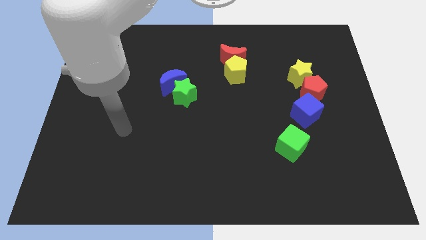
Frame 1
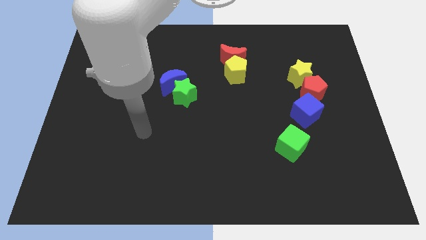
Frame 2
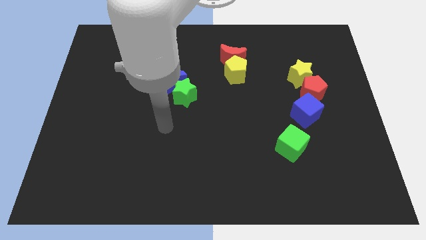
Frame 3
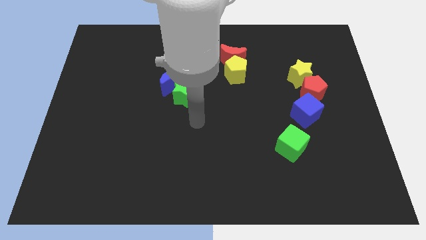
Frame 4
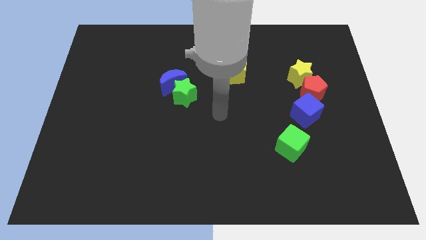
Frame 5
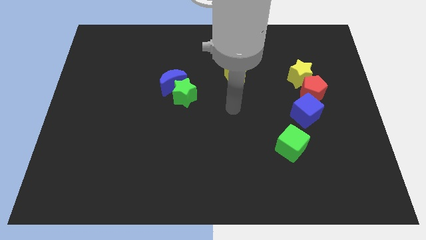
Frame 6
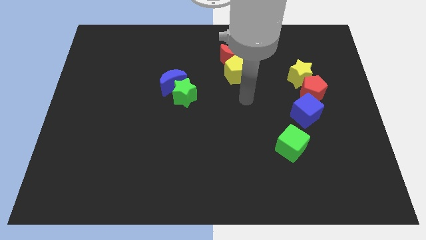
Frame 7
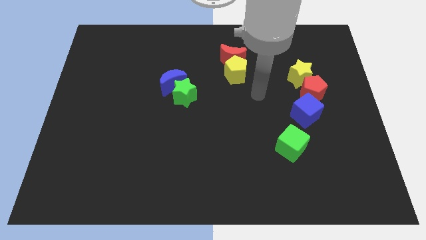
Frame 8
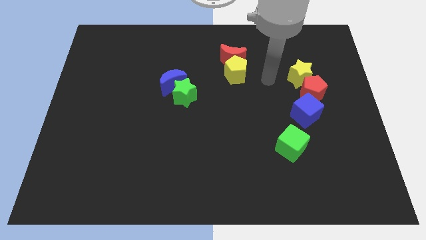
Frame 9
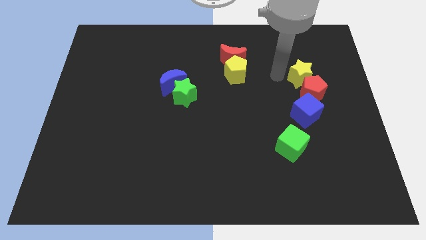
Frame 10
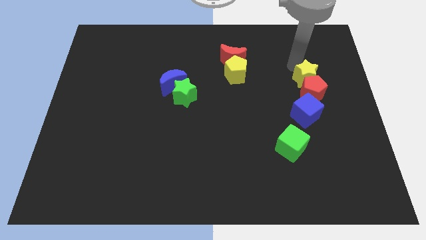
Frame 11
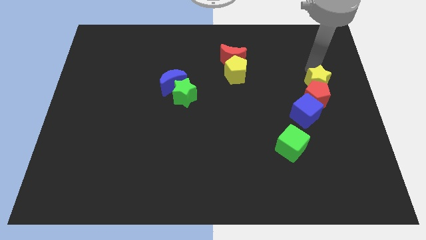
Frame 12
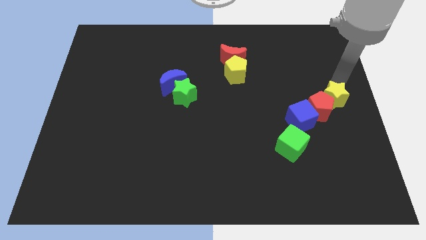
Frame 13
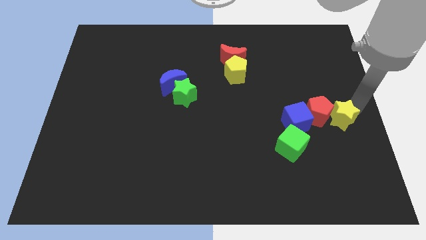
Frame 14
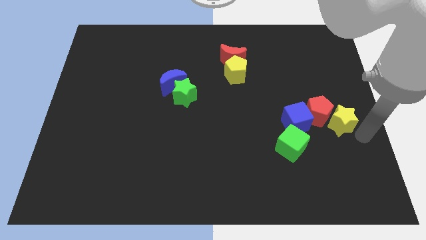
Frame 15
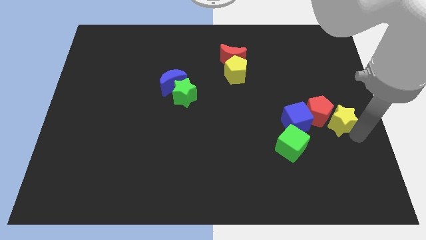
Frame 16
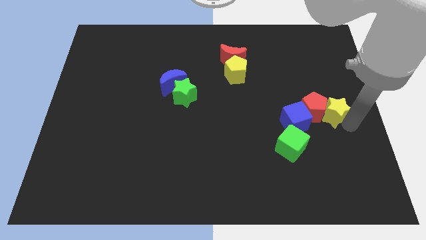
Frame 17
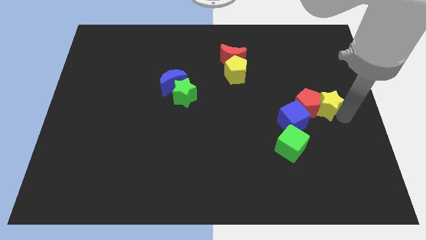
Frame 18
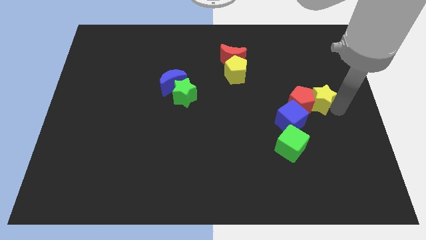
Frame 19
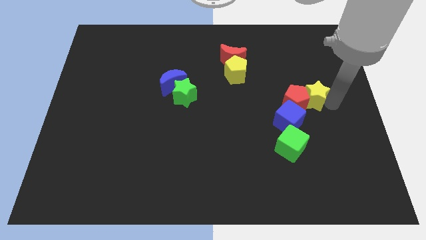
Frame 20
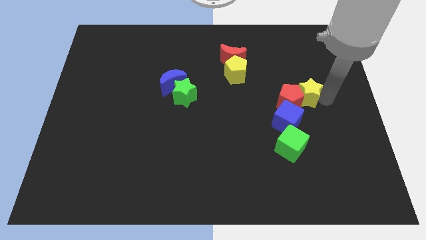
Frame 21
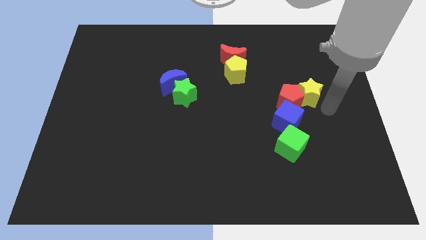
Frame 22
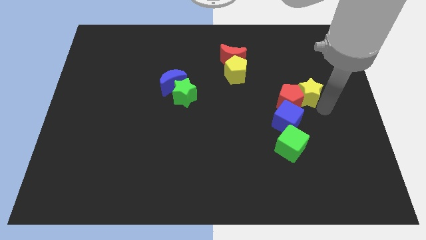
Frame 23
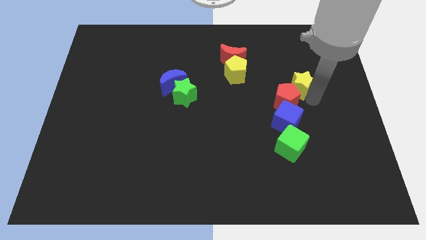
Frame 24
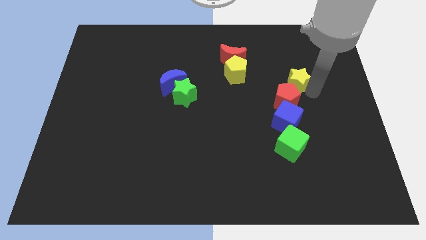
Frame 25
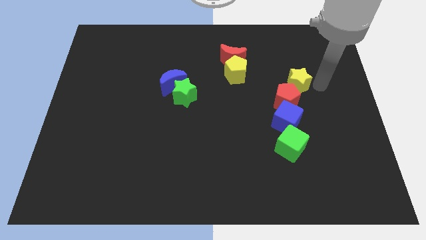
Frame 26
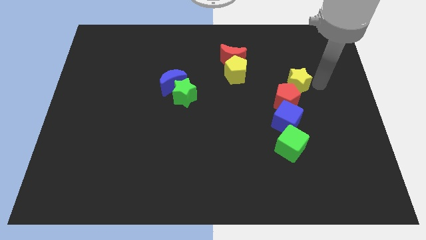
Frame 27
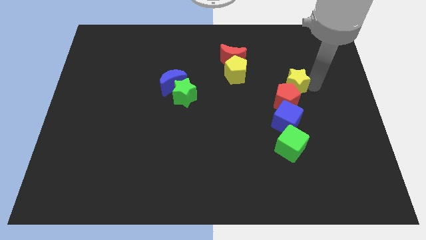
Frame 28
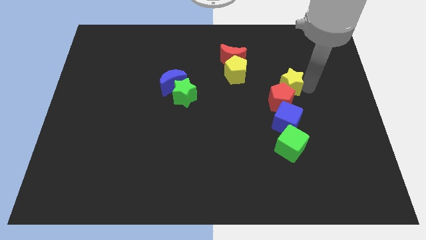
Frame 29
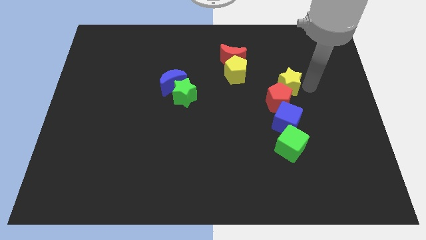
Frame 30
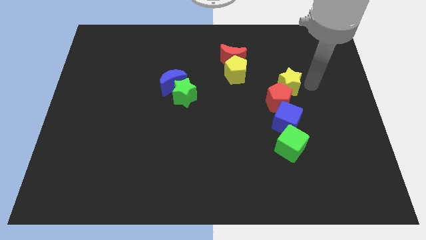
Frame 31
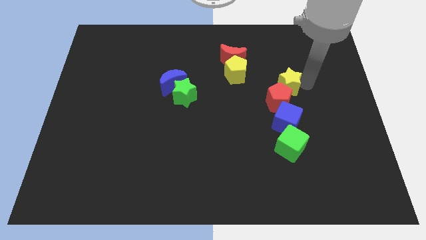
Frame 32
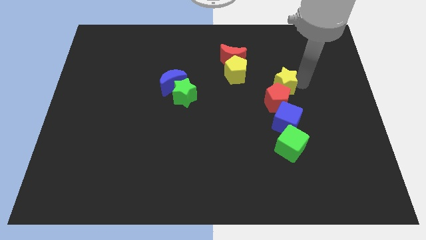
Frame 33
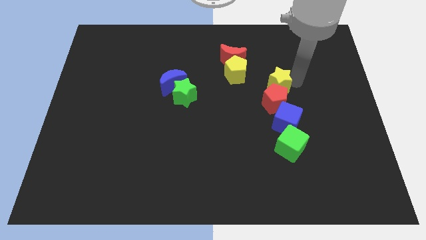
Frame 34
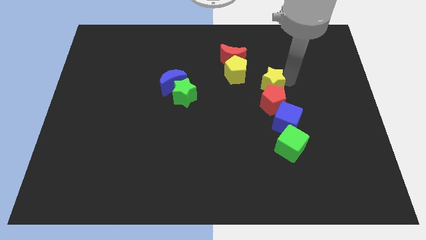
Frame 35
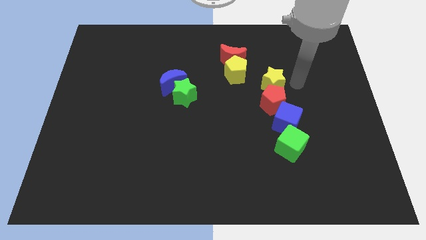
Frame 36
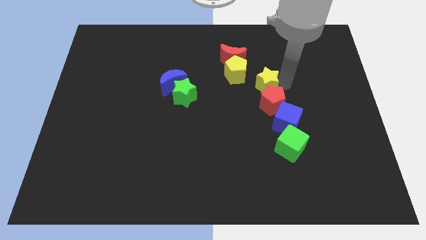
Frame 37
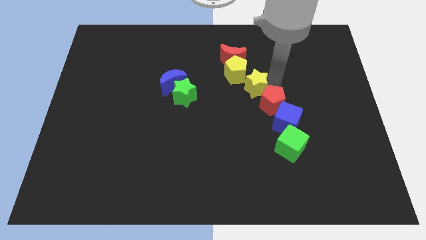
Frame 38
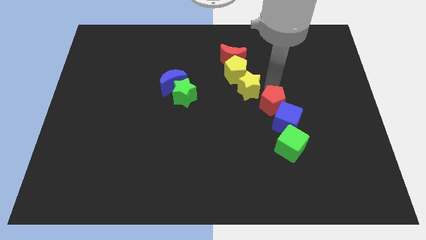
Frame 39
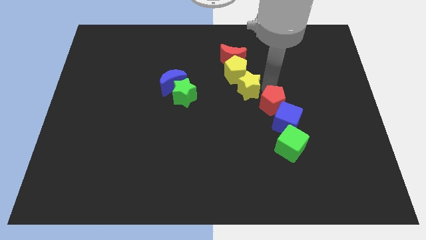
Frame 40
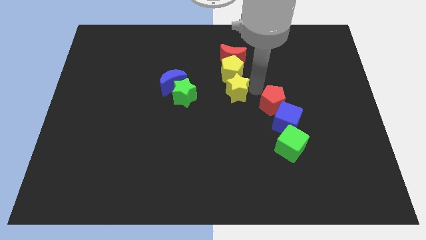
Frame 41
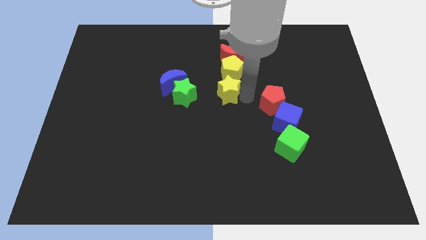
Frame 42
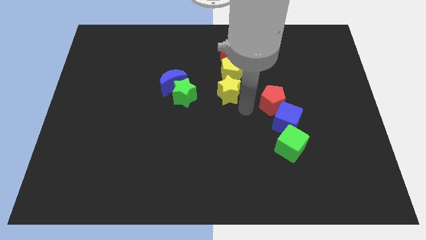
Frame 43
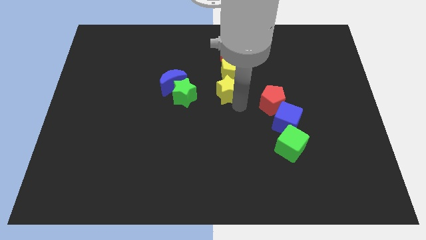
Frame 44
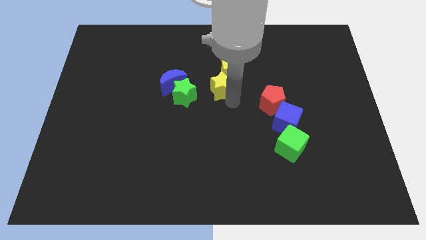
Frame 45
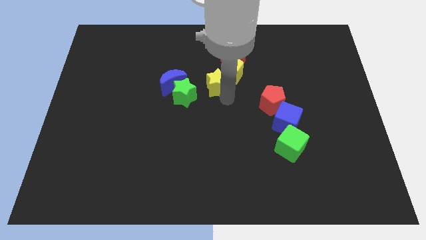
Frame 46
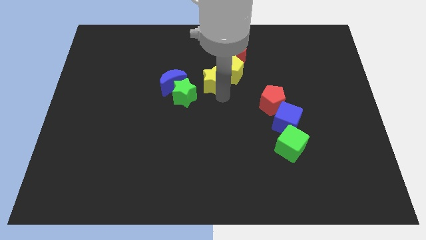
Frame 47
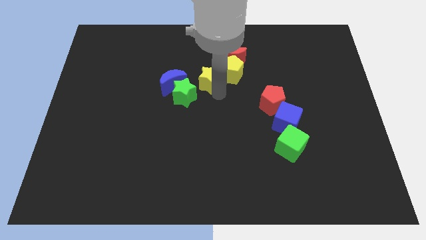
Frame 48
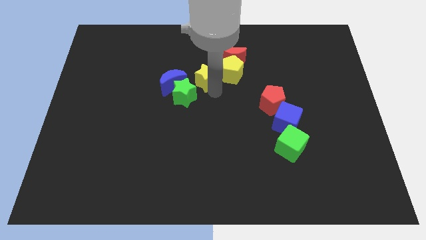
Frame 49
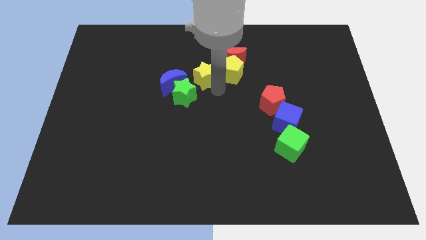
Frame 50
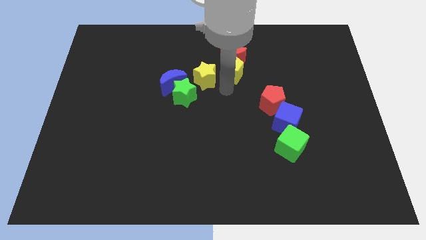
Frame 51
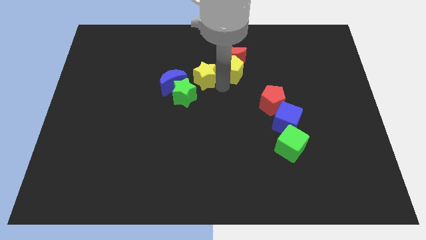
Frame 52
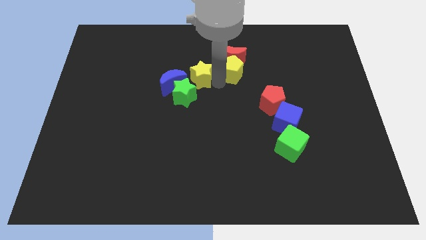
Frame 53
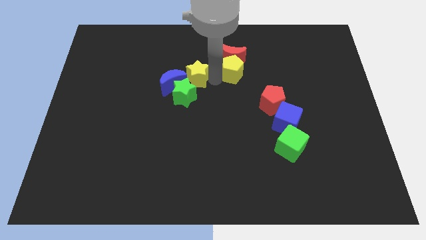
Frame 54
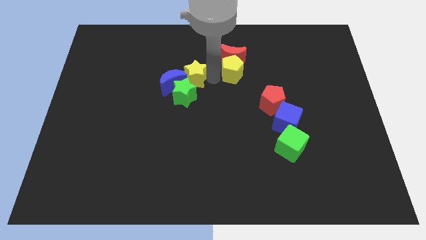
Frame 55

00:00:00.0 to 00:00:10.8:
push the yellow star close to the blue moon

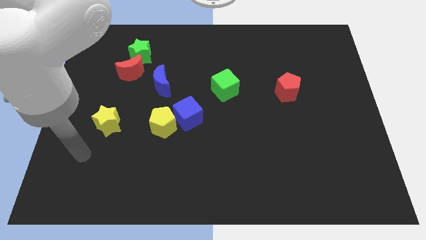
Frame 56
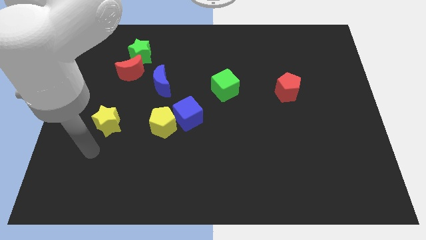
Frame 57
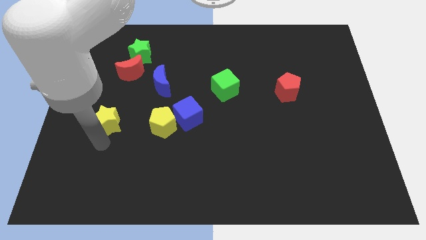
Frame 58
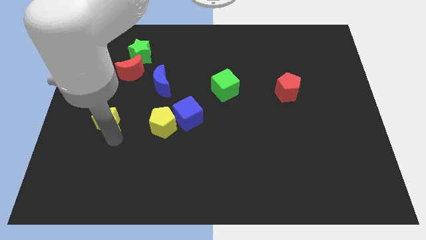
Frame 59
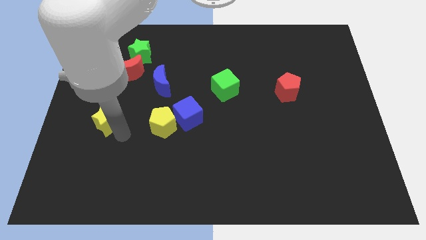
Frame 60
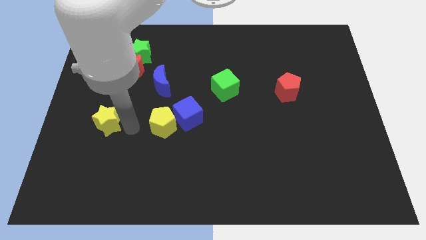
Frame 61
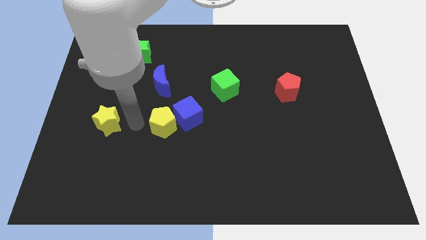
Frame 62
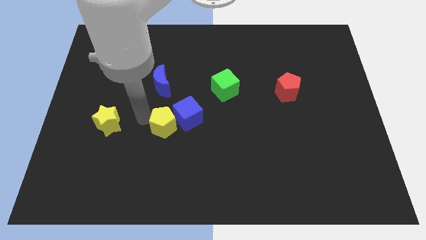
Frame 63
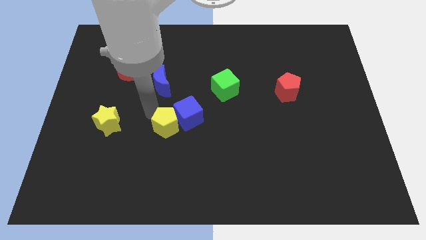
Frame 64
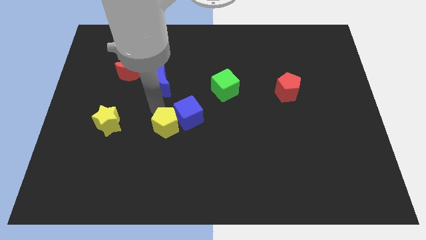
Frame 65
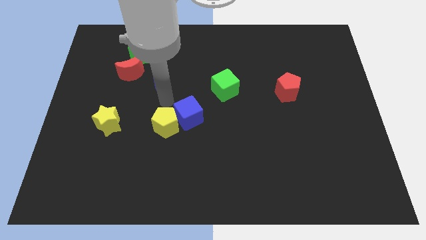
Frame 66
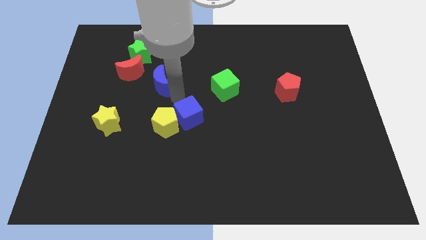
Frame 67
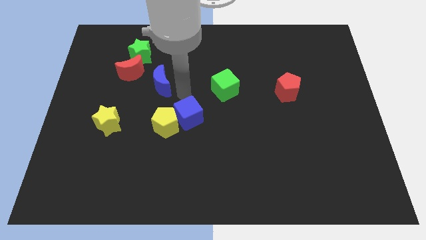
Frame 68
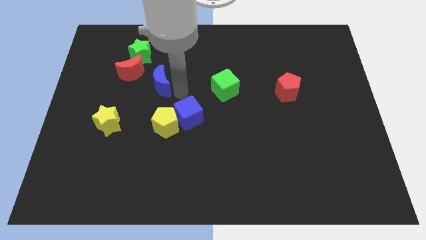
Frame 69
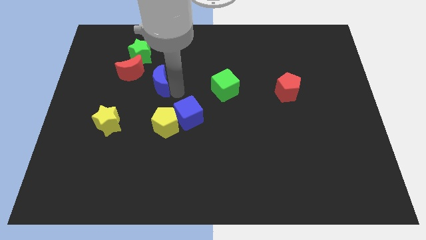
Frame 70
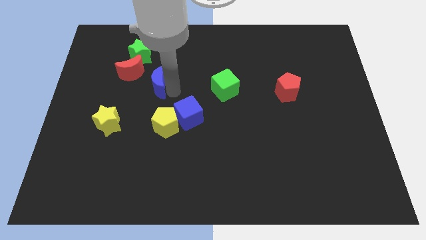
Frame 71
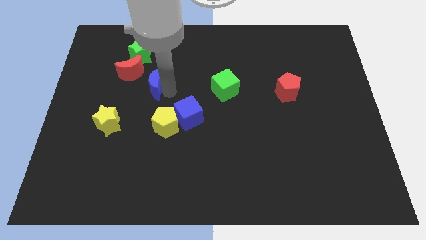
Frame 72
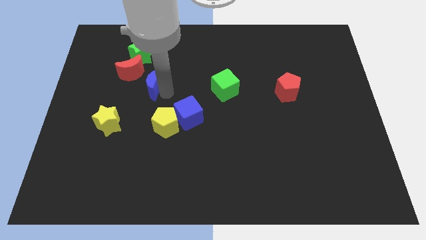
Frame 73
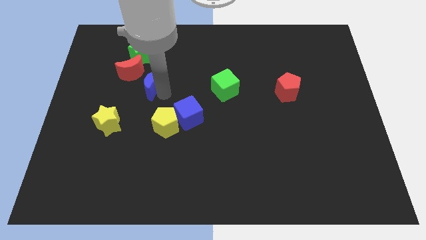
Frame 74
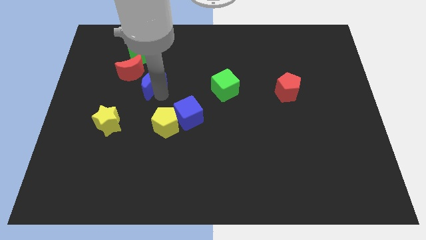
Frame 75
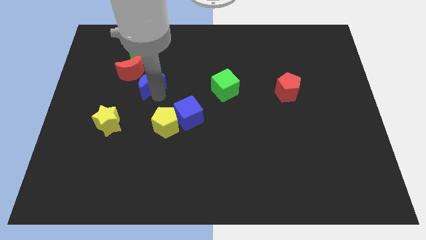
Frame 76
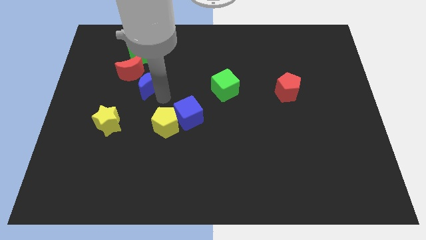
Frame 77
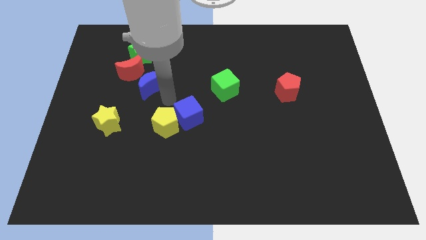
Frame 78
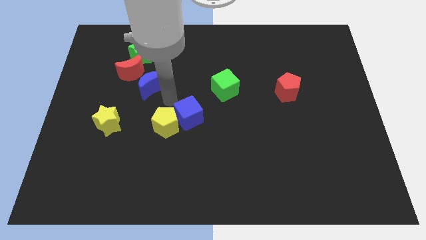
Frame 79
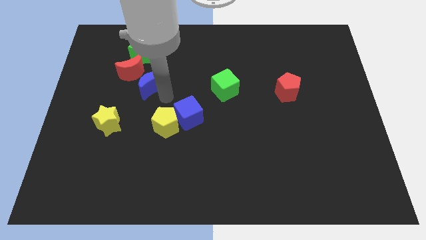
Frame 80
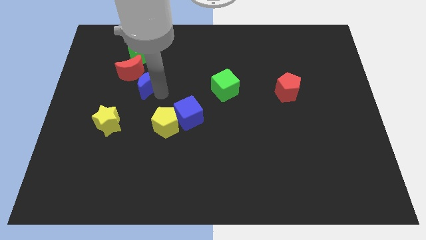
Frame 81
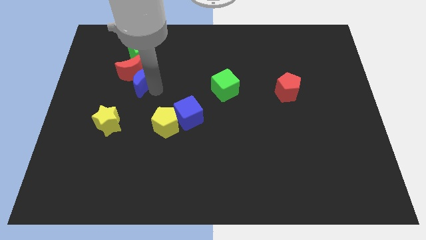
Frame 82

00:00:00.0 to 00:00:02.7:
push the blue moon towards the red moon
